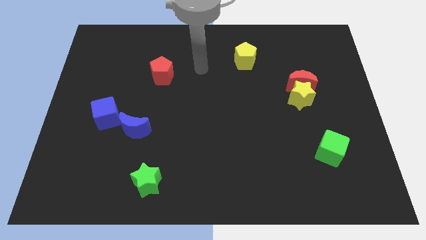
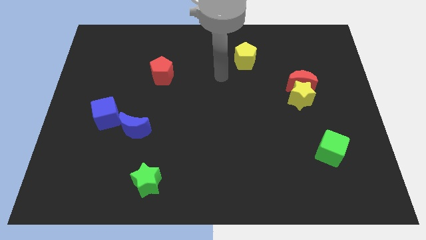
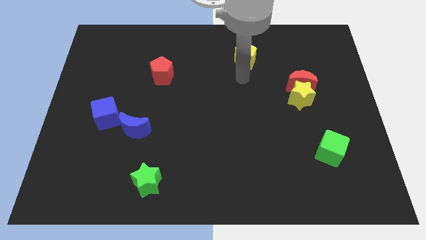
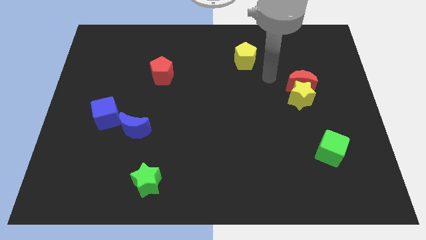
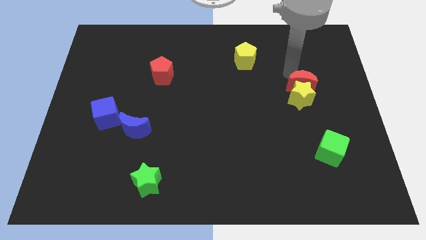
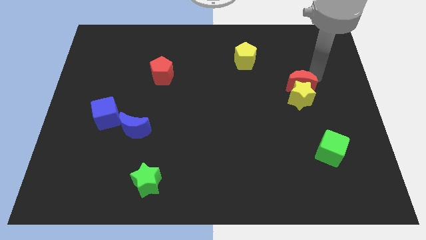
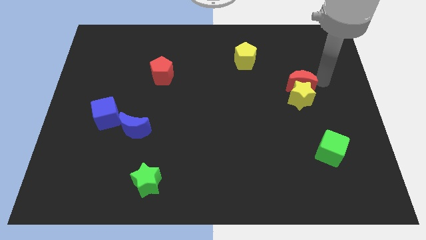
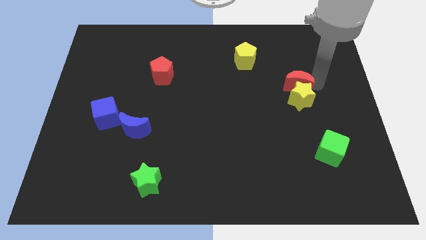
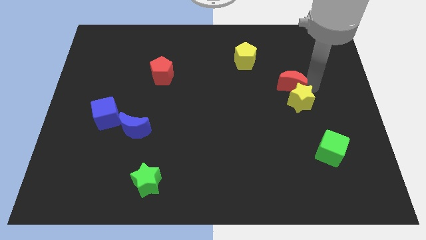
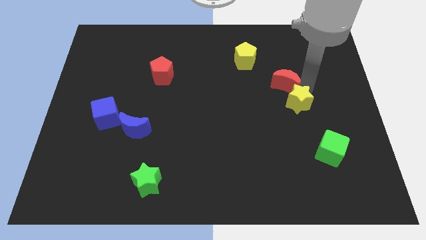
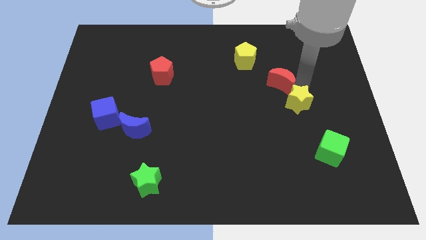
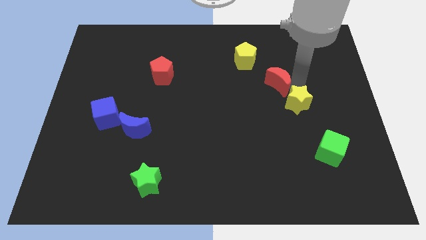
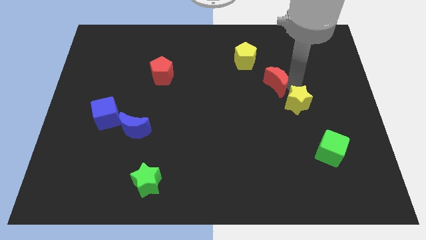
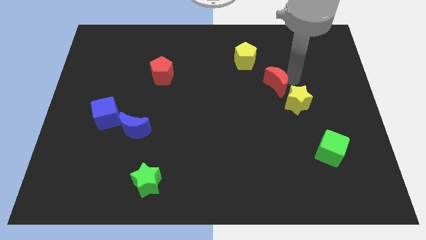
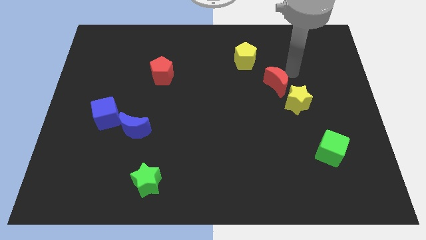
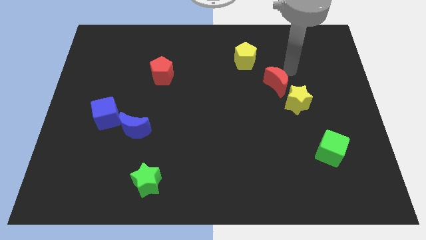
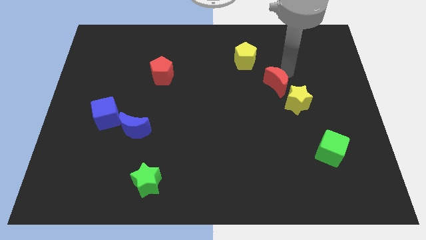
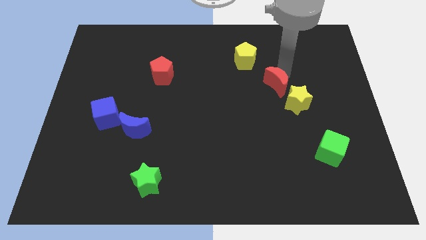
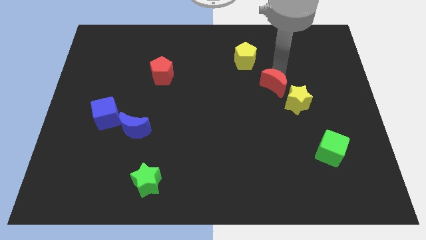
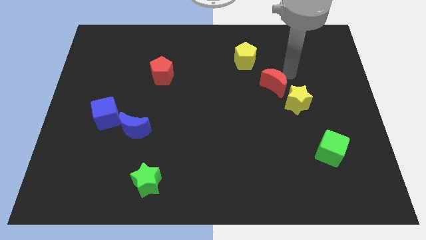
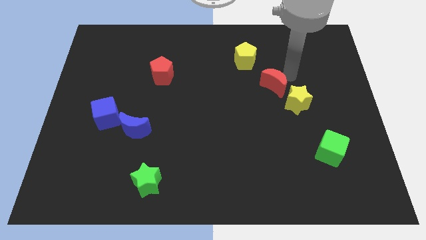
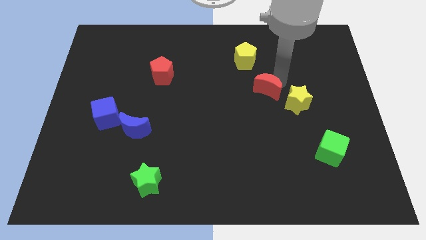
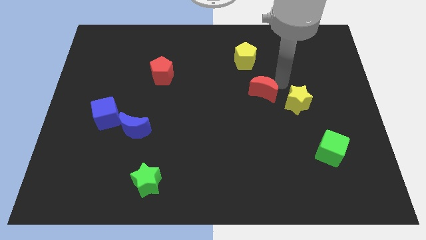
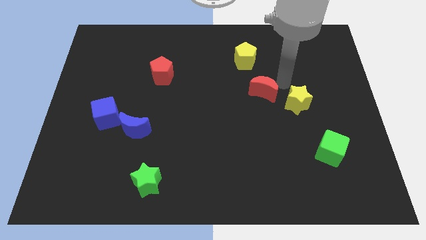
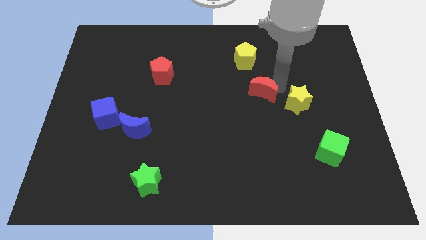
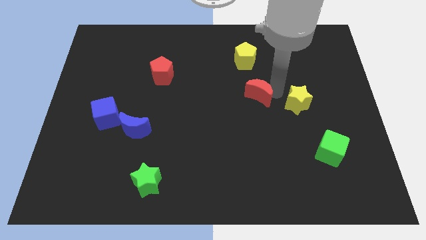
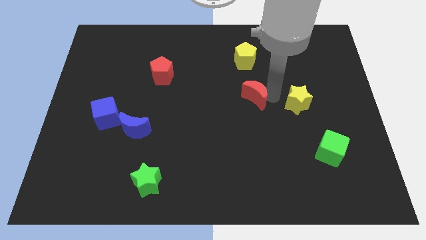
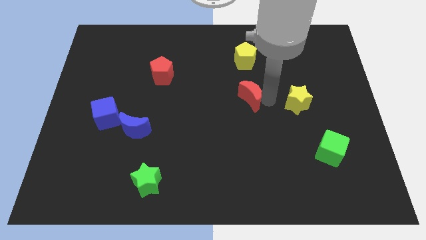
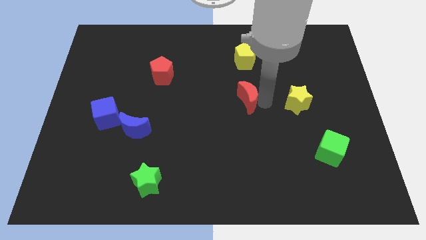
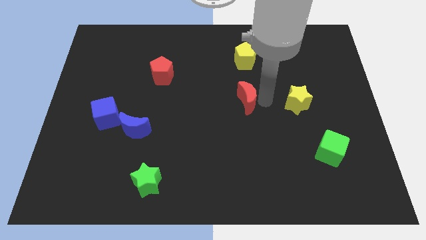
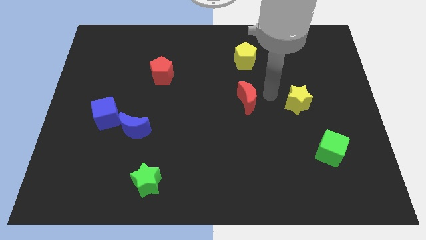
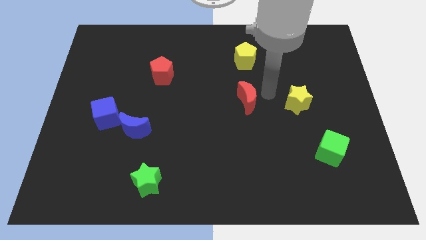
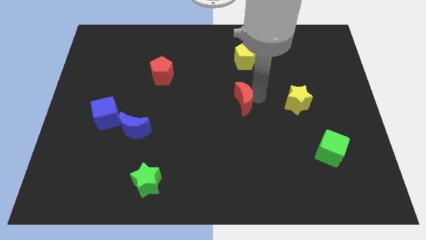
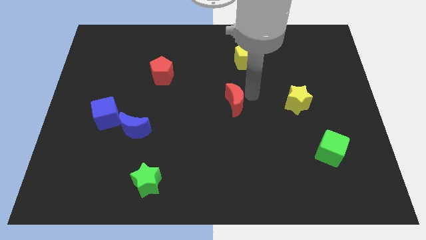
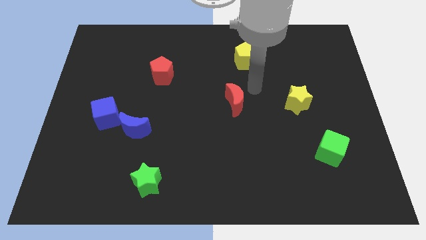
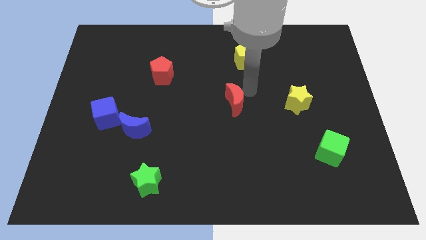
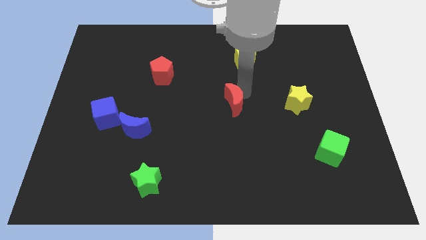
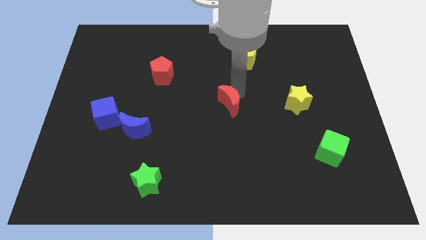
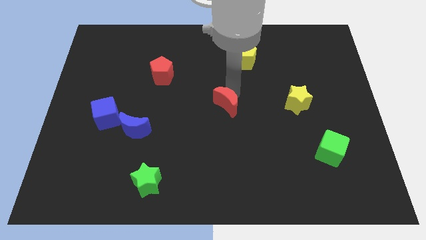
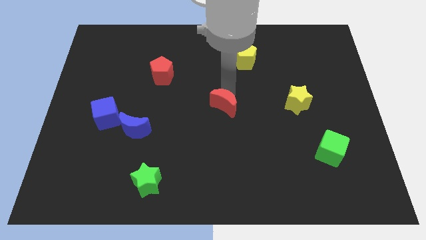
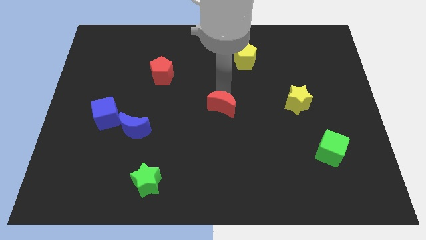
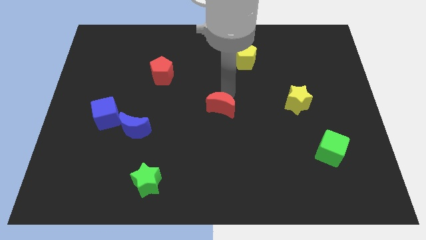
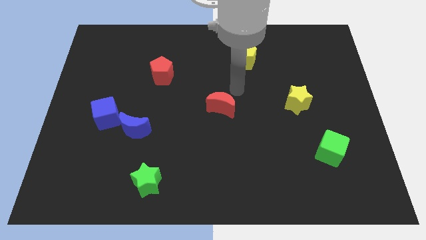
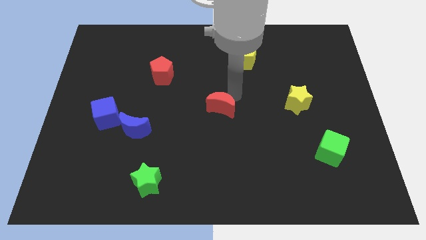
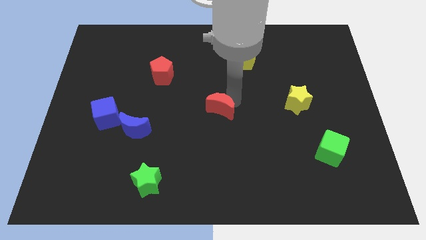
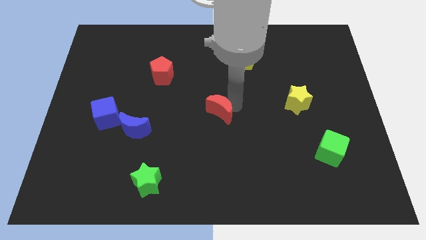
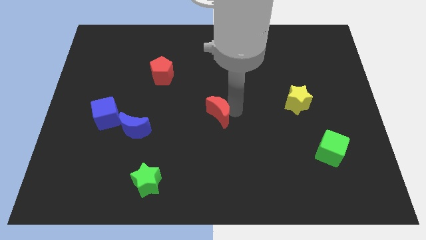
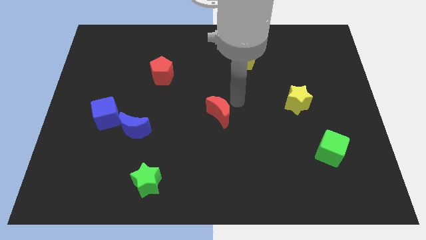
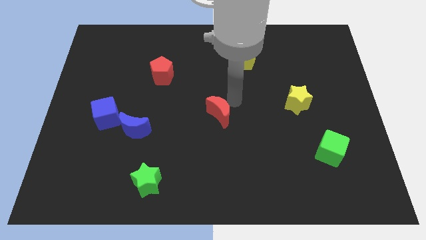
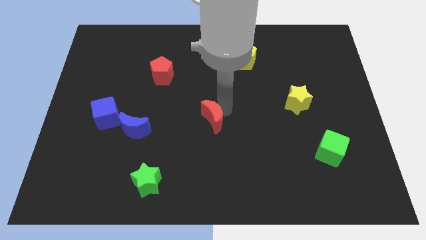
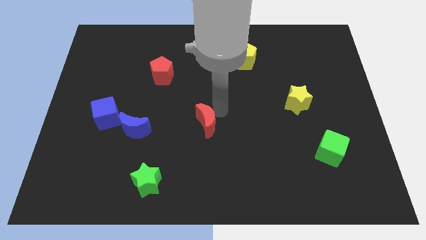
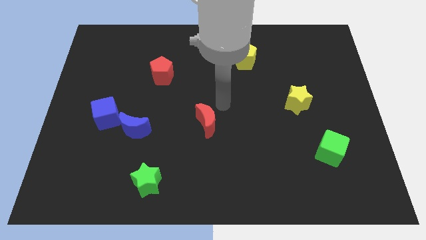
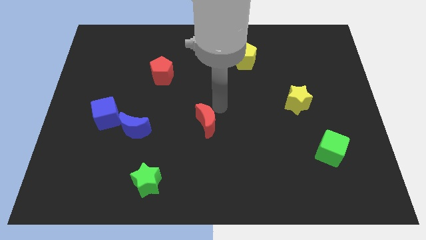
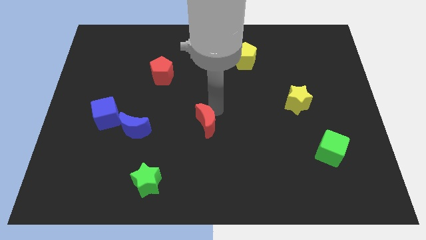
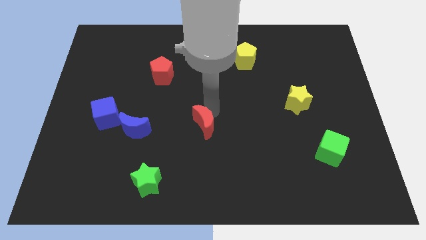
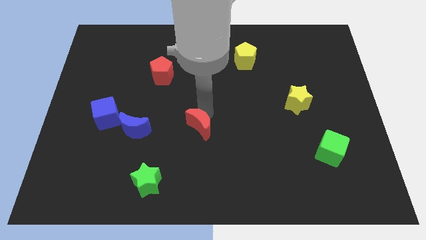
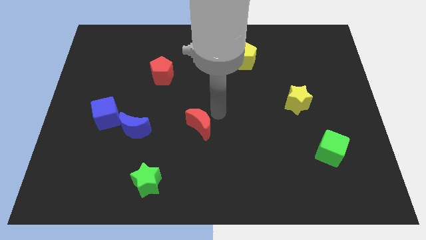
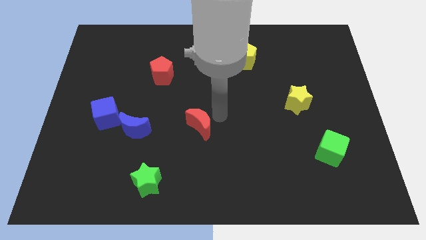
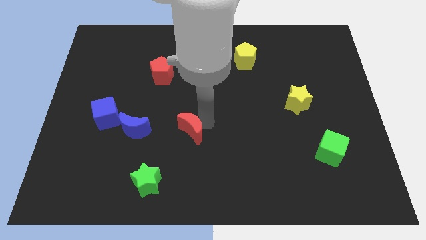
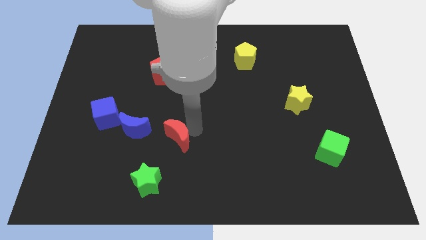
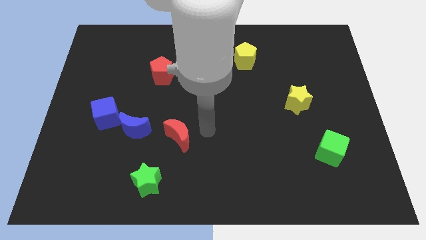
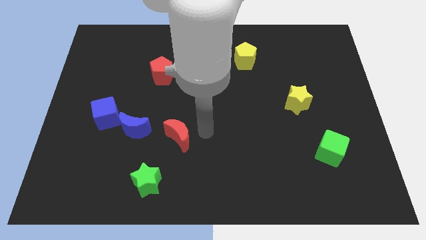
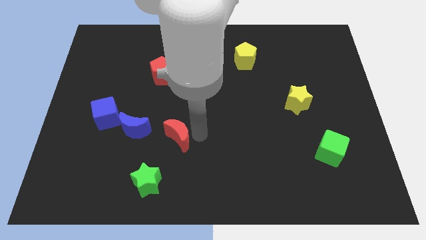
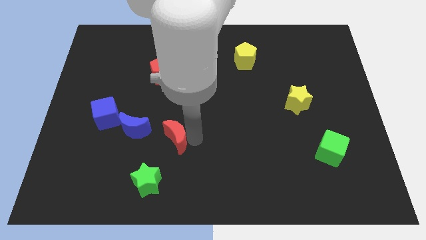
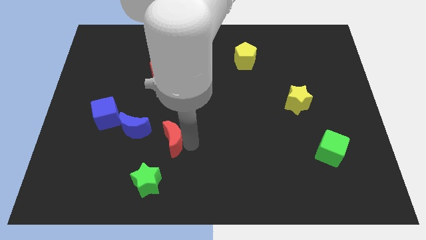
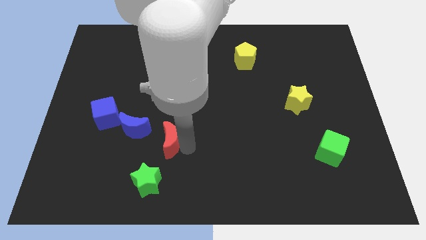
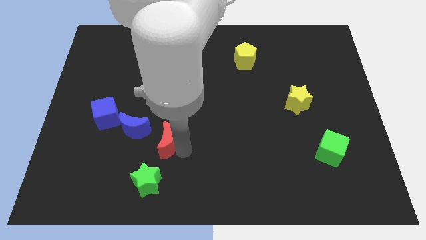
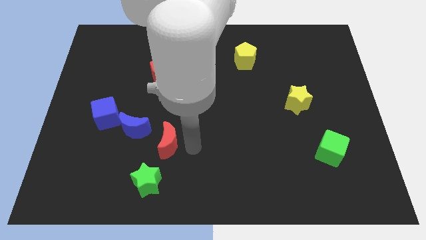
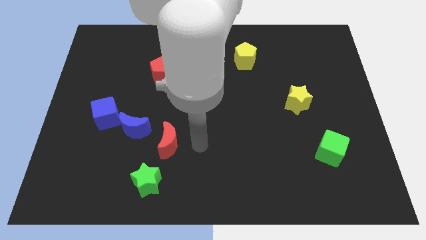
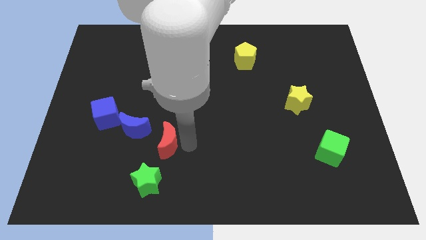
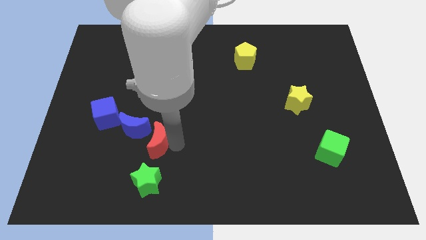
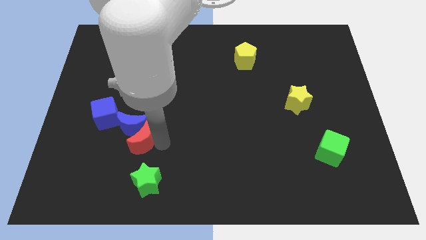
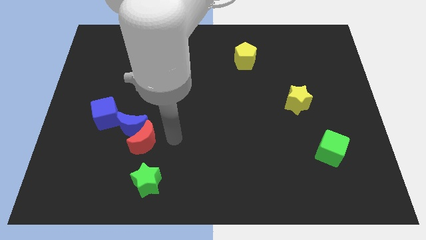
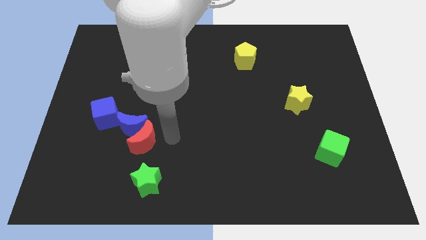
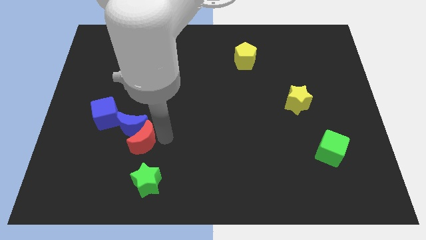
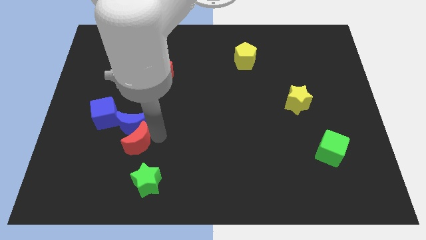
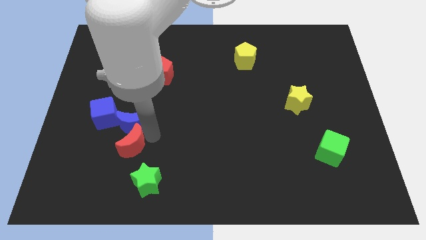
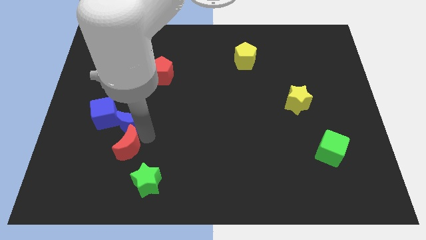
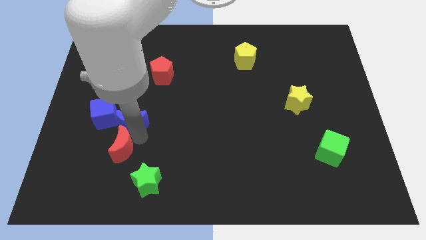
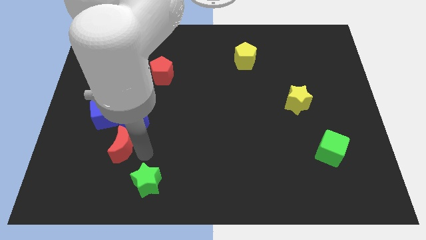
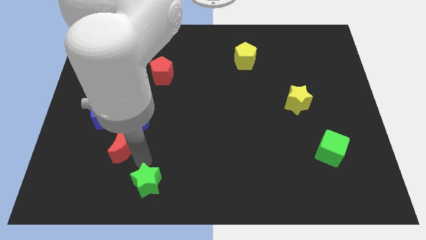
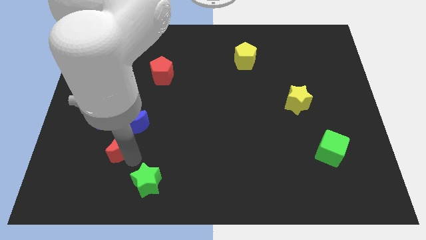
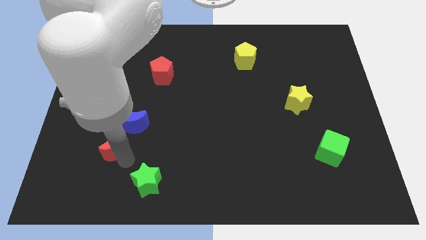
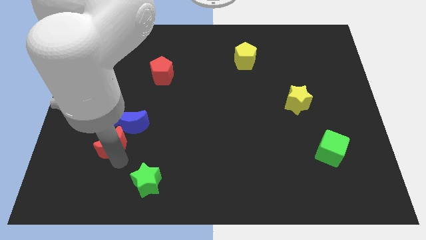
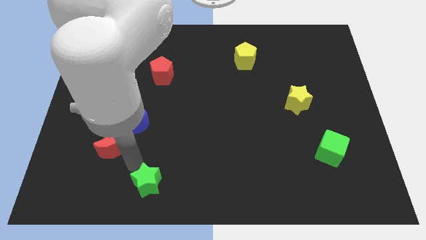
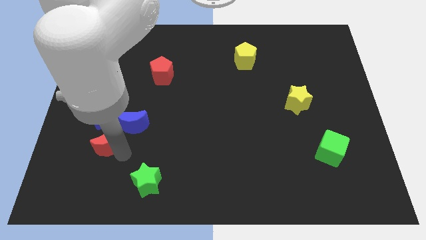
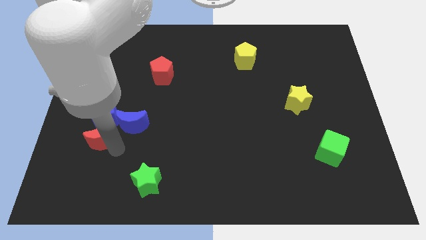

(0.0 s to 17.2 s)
slide the red moon to the left of the blue moon
